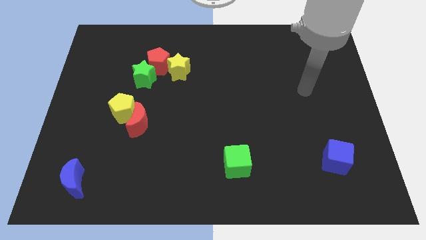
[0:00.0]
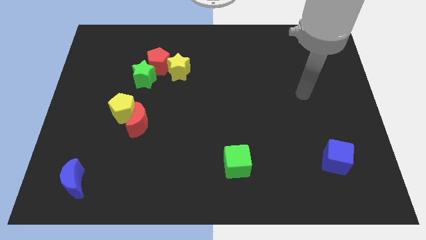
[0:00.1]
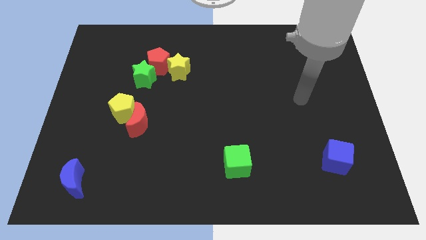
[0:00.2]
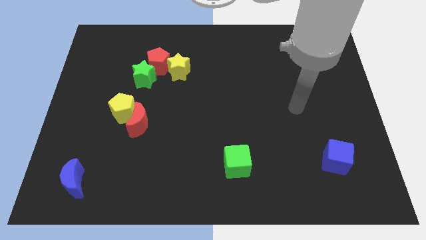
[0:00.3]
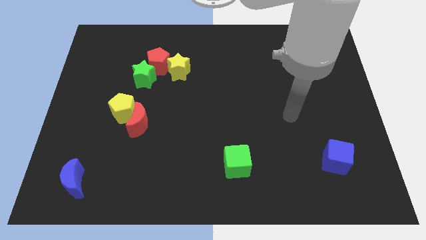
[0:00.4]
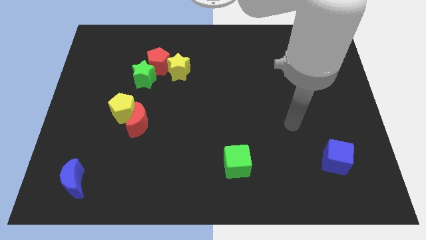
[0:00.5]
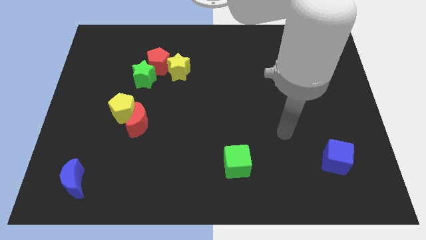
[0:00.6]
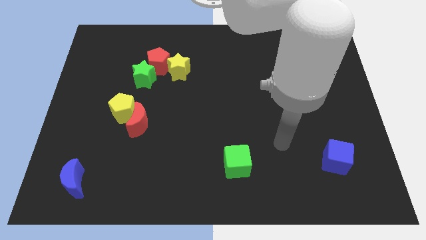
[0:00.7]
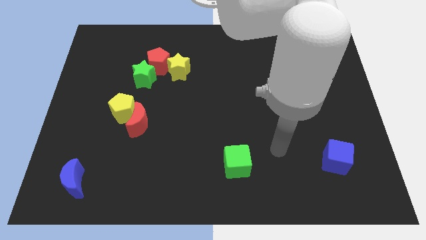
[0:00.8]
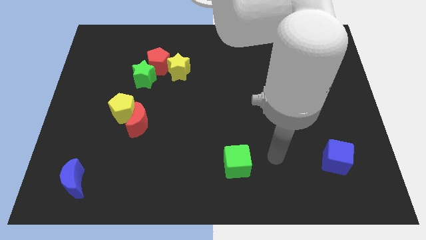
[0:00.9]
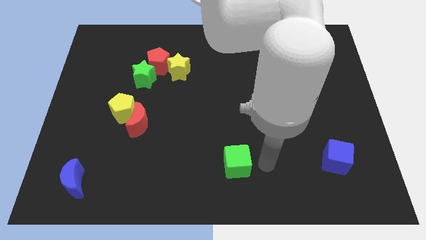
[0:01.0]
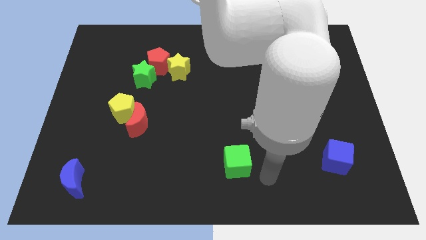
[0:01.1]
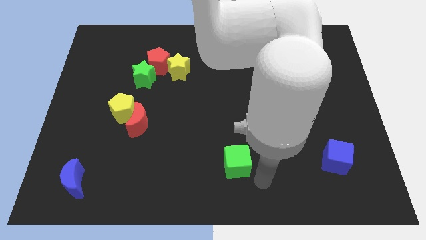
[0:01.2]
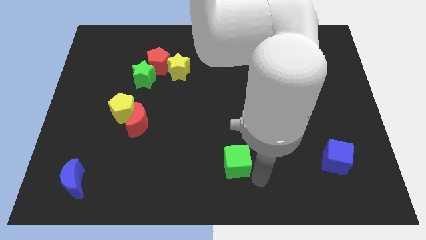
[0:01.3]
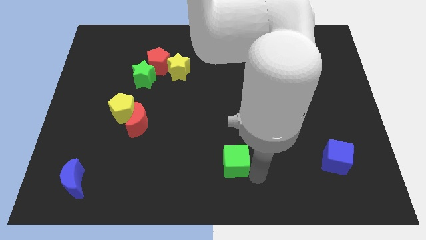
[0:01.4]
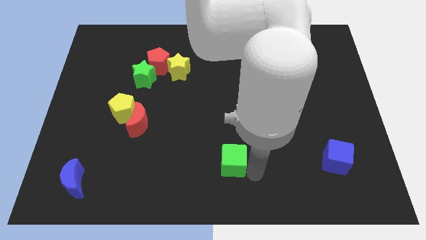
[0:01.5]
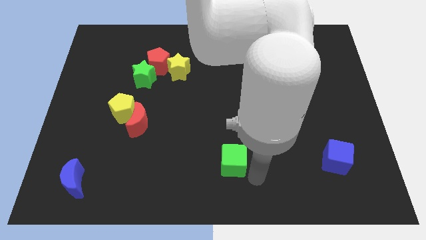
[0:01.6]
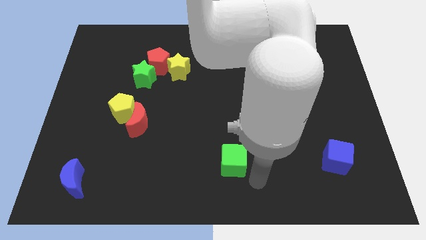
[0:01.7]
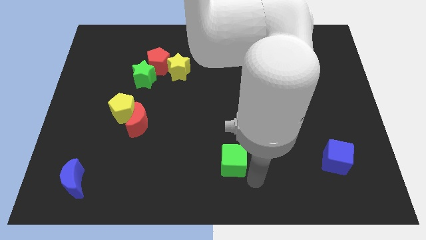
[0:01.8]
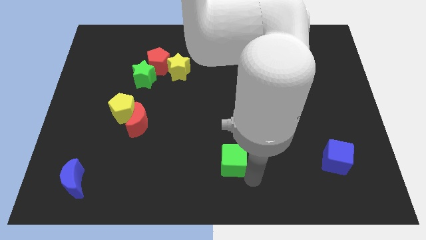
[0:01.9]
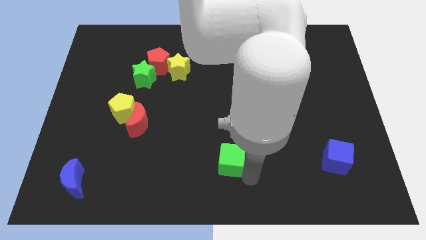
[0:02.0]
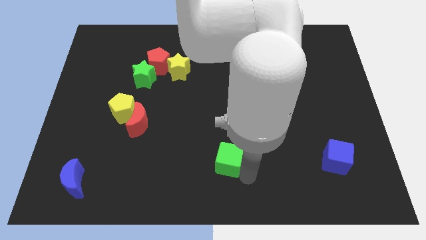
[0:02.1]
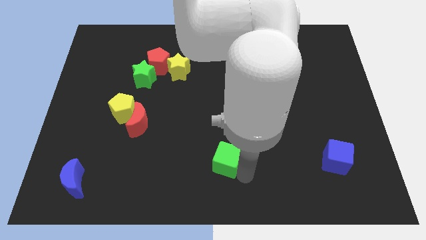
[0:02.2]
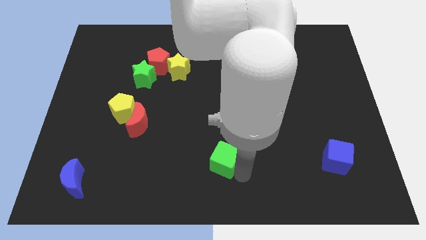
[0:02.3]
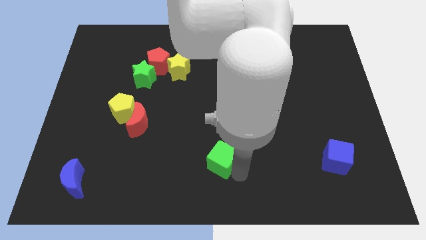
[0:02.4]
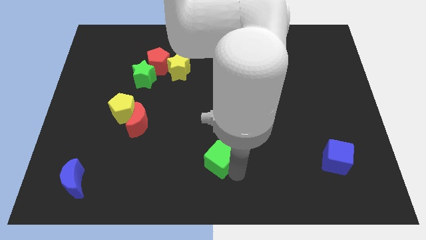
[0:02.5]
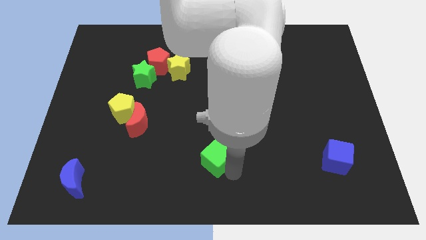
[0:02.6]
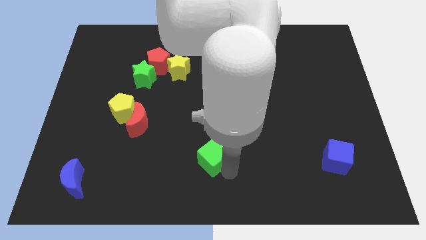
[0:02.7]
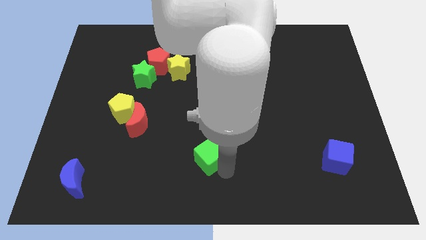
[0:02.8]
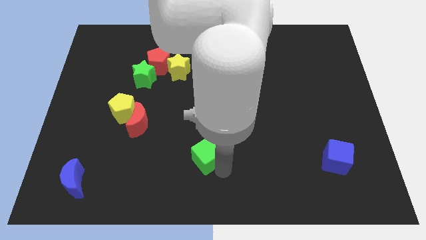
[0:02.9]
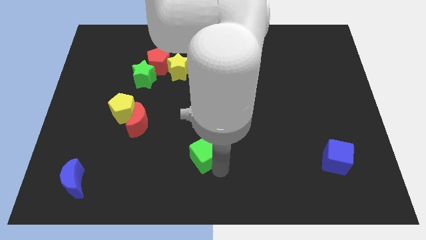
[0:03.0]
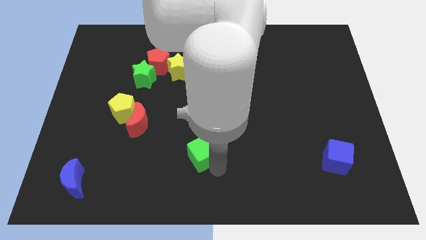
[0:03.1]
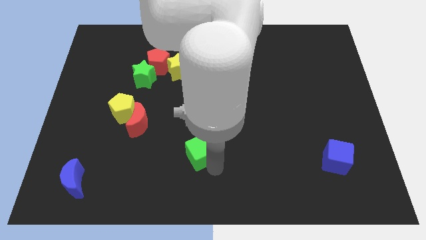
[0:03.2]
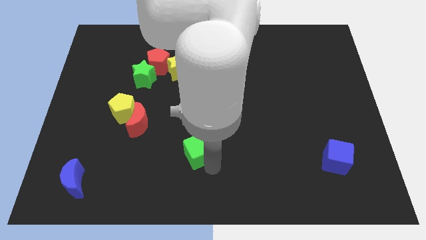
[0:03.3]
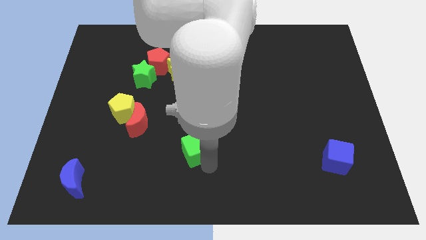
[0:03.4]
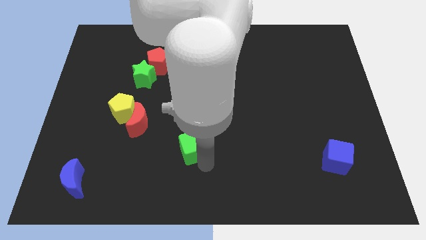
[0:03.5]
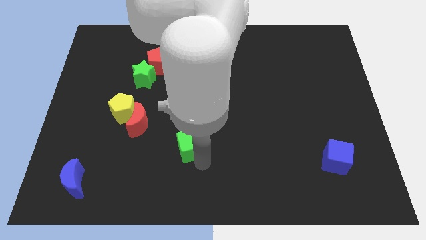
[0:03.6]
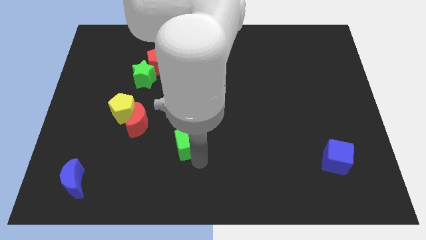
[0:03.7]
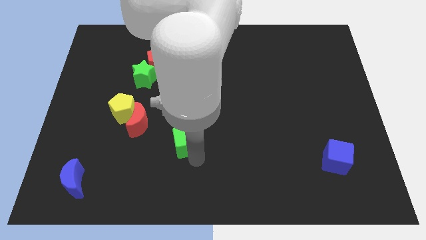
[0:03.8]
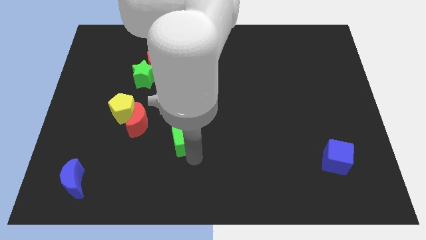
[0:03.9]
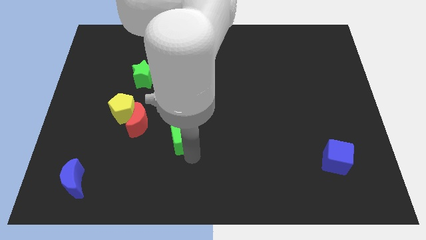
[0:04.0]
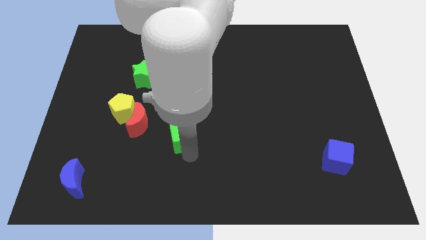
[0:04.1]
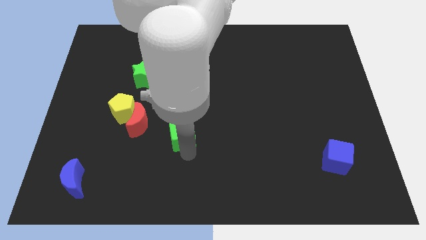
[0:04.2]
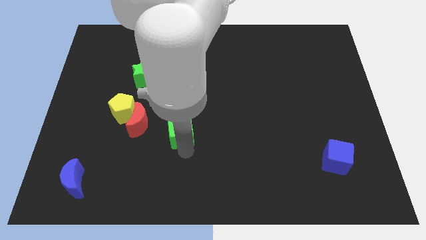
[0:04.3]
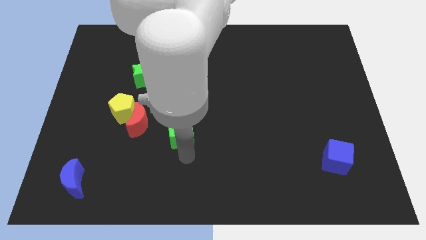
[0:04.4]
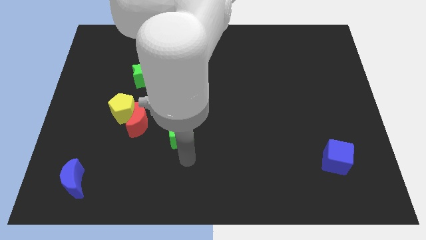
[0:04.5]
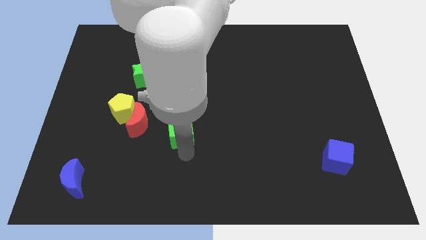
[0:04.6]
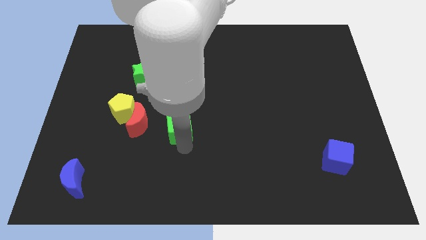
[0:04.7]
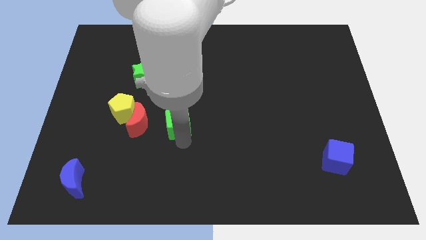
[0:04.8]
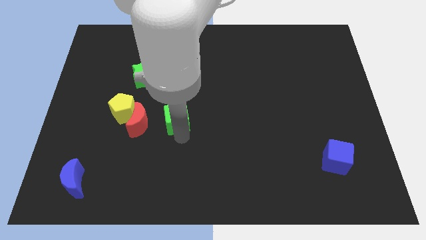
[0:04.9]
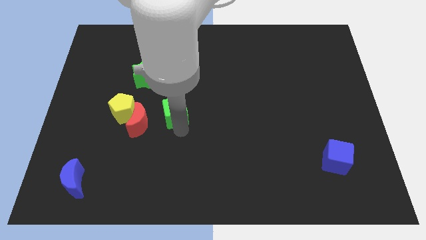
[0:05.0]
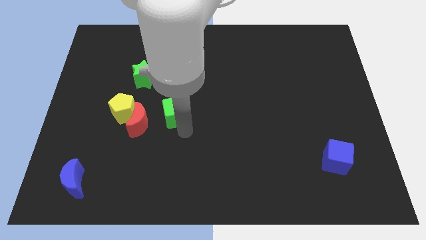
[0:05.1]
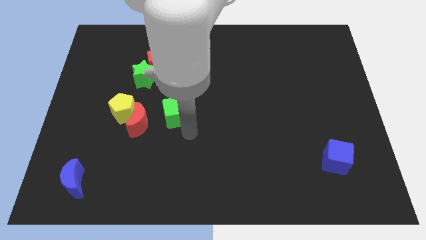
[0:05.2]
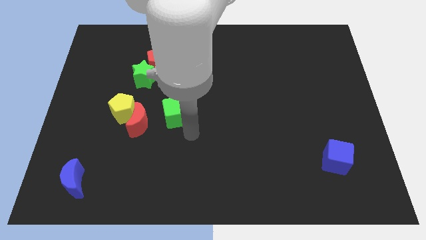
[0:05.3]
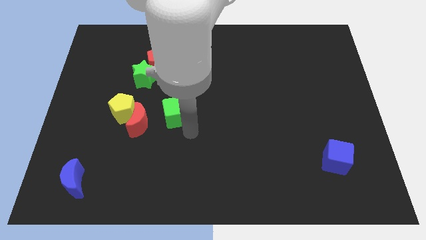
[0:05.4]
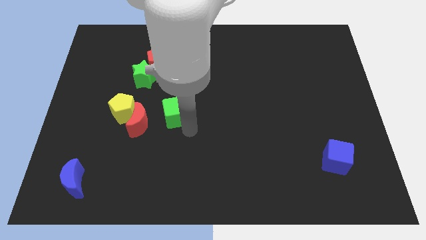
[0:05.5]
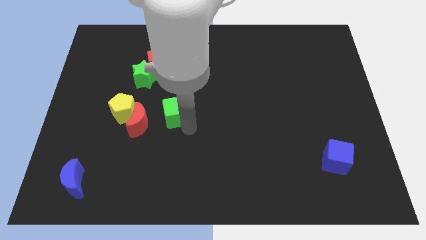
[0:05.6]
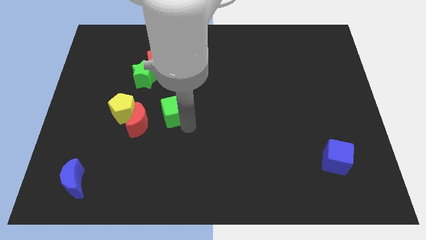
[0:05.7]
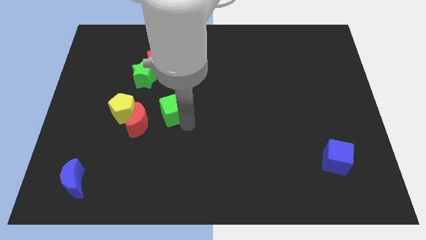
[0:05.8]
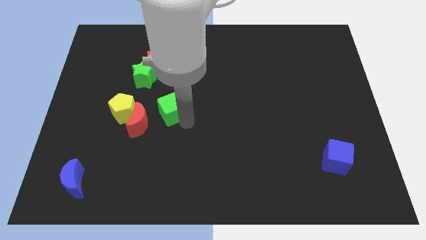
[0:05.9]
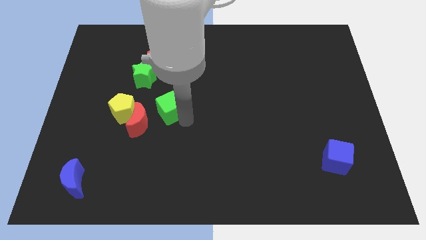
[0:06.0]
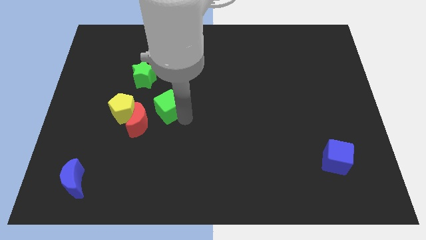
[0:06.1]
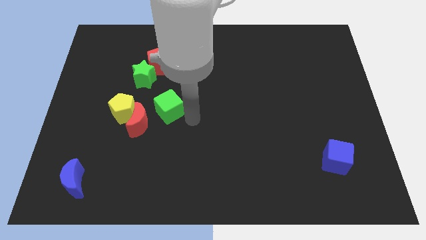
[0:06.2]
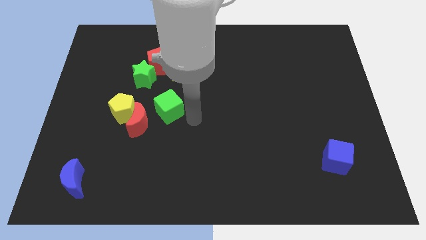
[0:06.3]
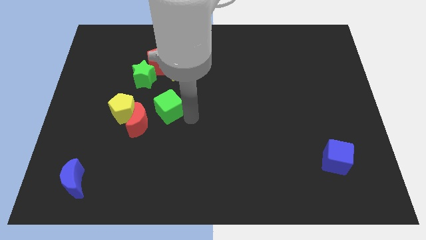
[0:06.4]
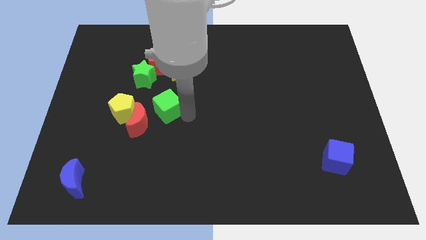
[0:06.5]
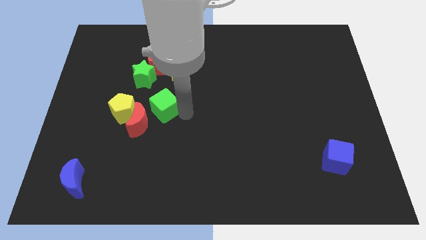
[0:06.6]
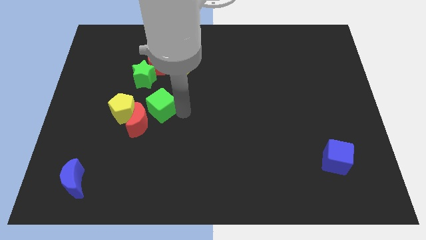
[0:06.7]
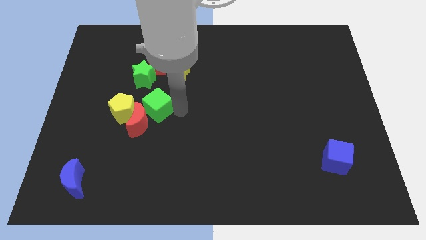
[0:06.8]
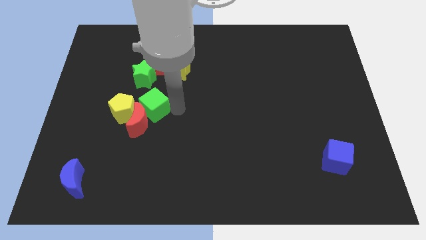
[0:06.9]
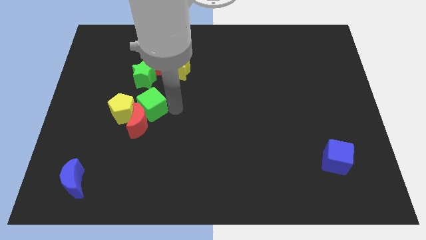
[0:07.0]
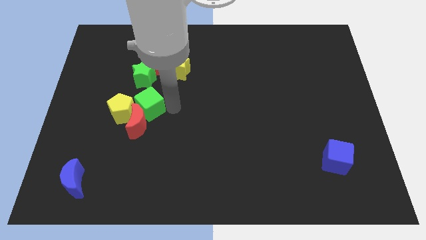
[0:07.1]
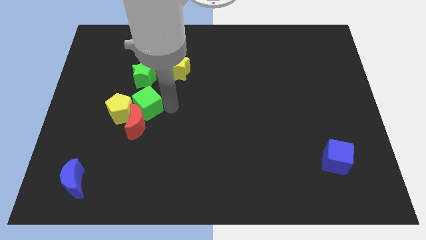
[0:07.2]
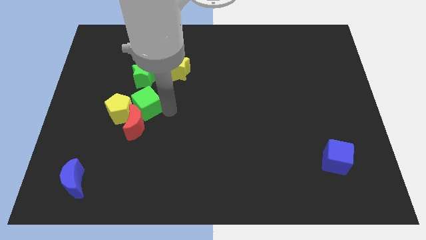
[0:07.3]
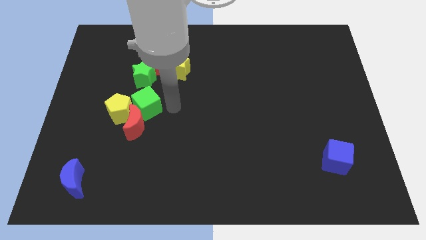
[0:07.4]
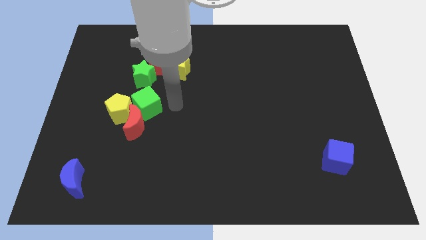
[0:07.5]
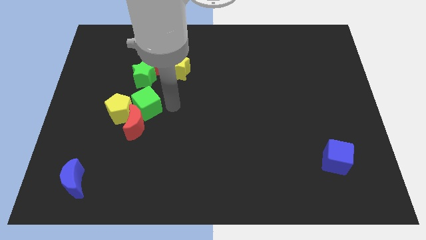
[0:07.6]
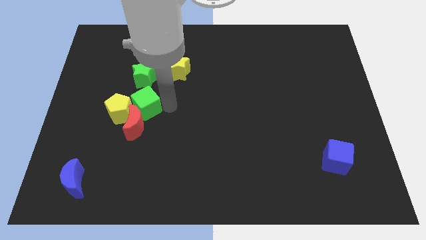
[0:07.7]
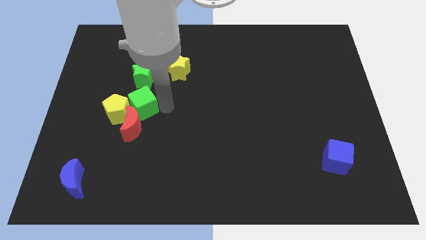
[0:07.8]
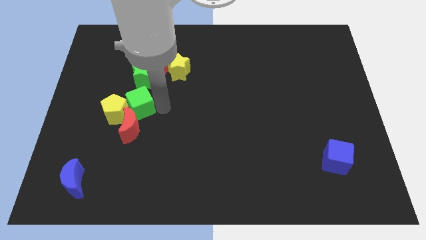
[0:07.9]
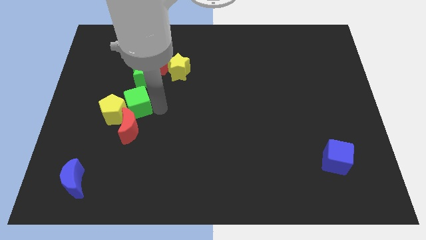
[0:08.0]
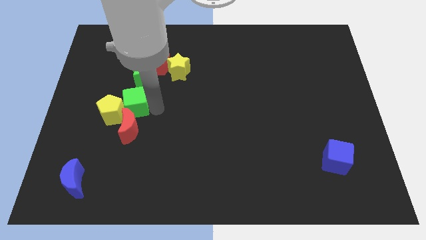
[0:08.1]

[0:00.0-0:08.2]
push the green cube to the top left side of the red moon
